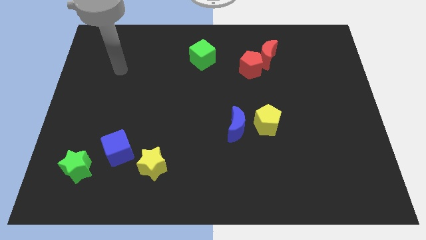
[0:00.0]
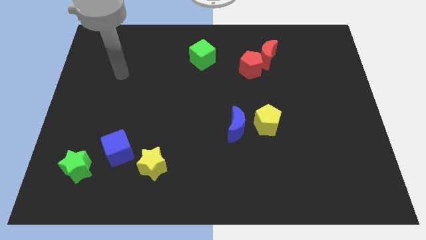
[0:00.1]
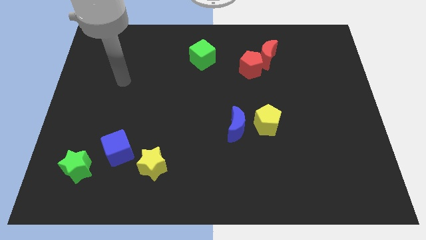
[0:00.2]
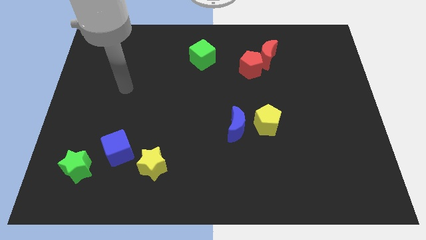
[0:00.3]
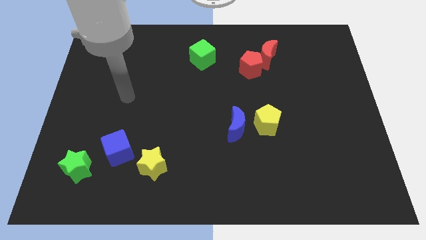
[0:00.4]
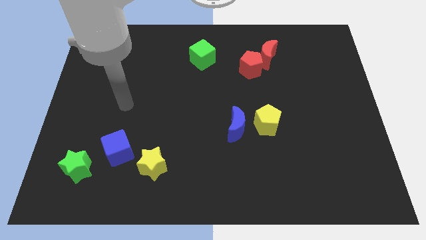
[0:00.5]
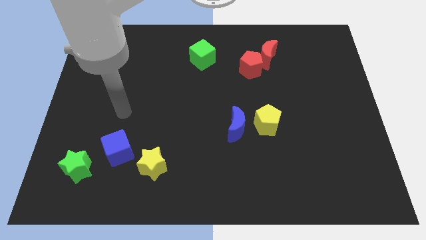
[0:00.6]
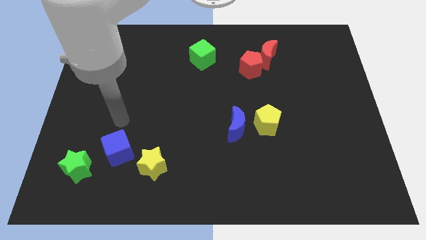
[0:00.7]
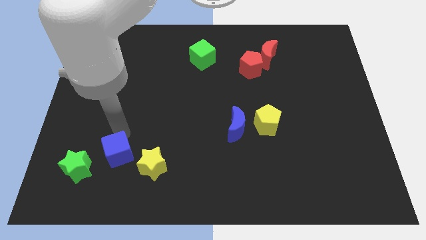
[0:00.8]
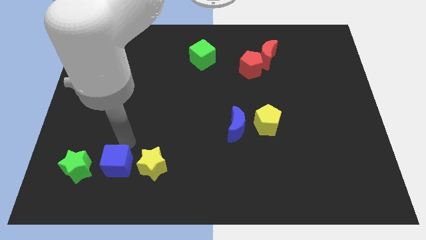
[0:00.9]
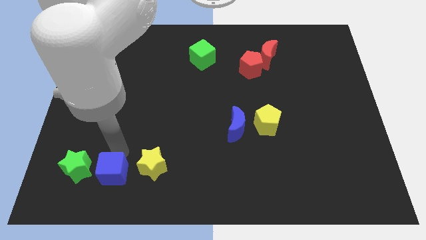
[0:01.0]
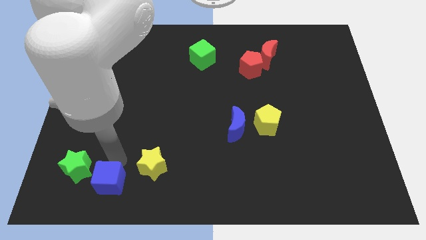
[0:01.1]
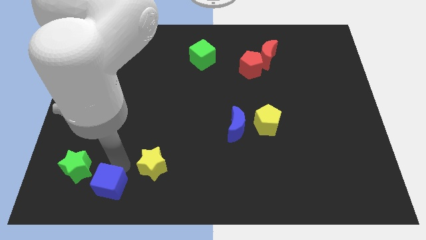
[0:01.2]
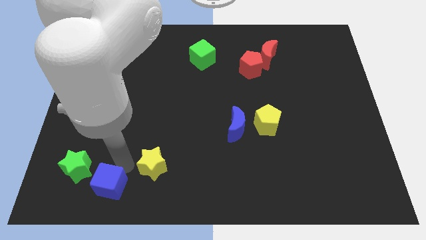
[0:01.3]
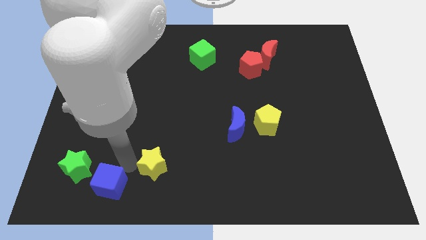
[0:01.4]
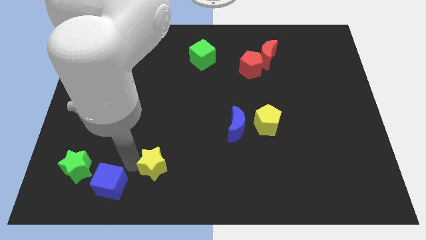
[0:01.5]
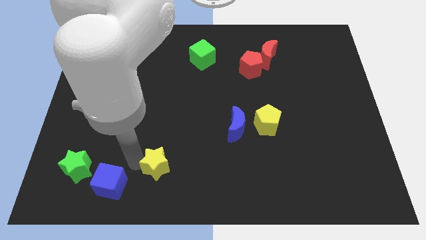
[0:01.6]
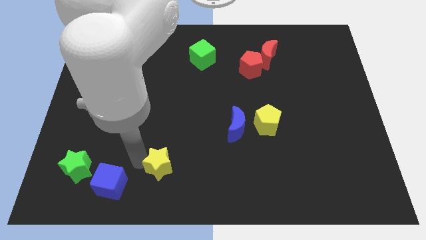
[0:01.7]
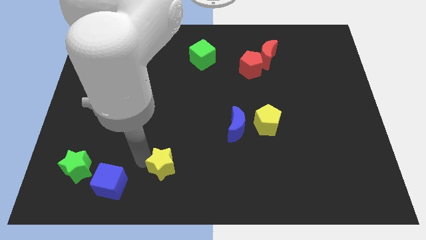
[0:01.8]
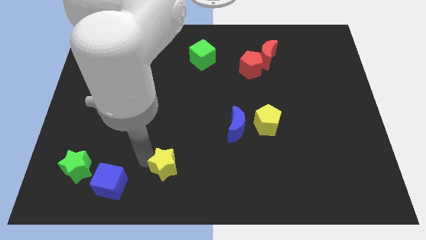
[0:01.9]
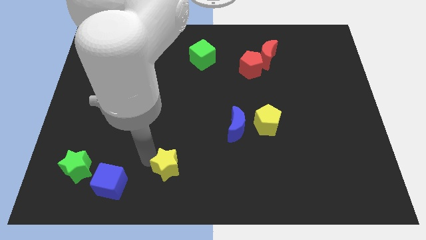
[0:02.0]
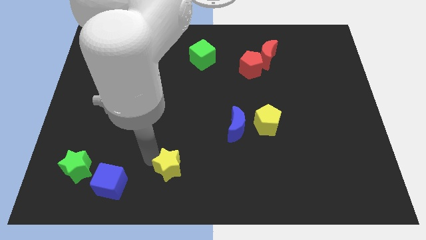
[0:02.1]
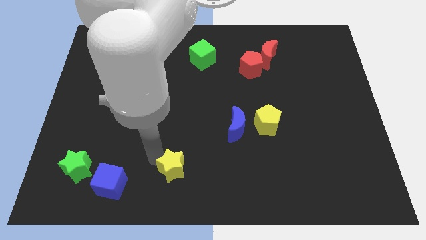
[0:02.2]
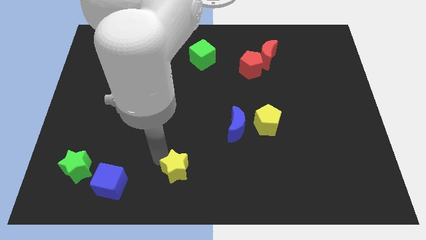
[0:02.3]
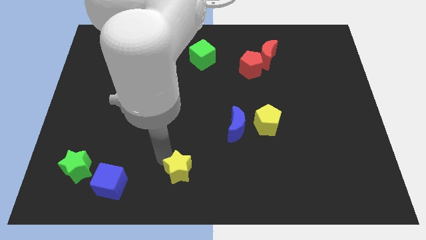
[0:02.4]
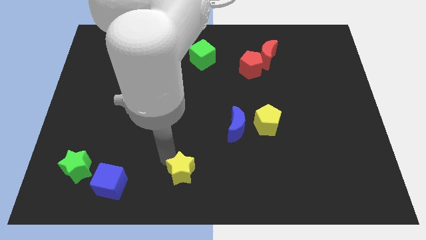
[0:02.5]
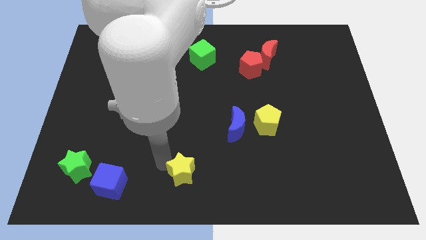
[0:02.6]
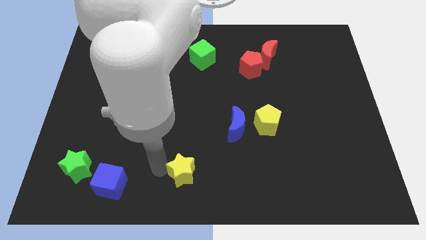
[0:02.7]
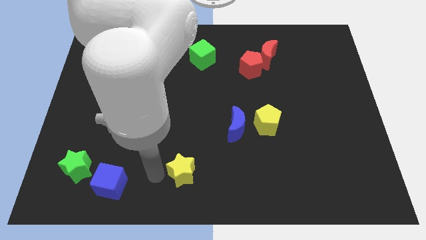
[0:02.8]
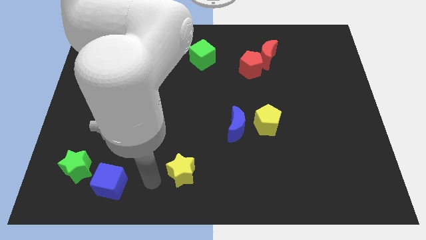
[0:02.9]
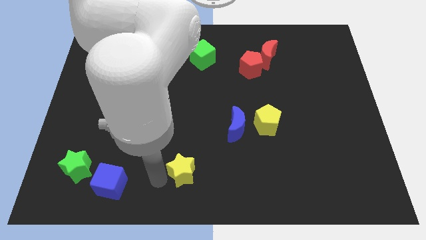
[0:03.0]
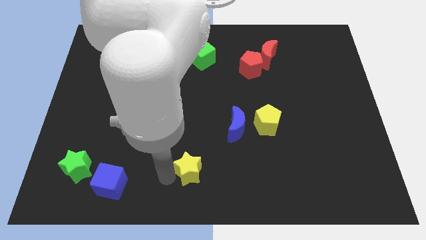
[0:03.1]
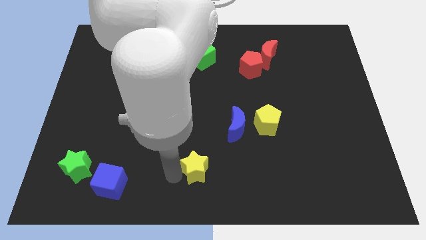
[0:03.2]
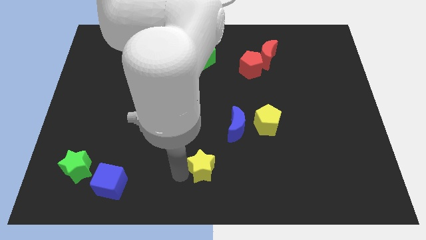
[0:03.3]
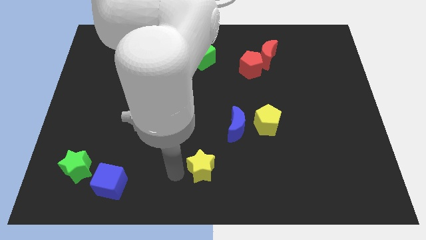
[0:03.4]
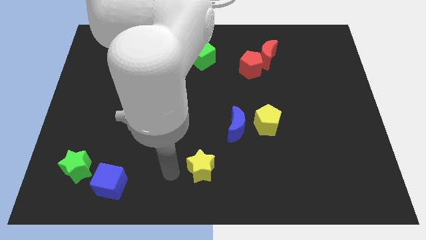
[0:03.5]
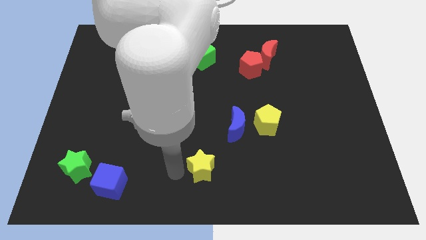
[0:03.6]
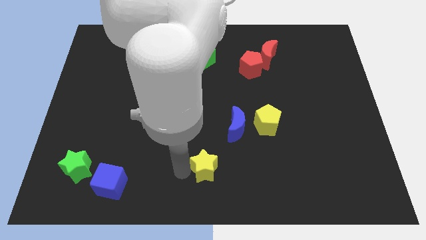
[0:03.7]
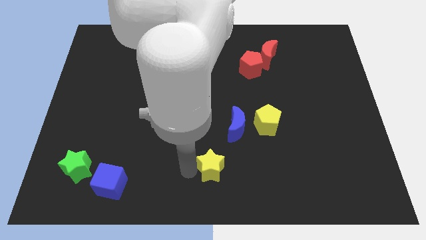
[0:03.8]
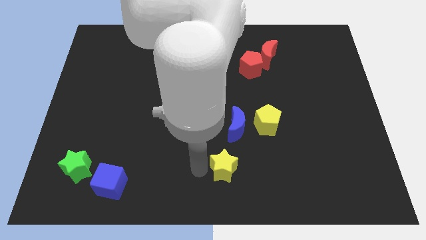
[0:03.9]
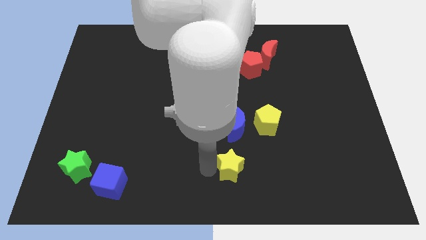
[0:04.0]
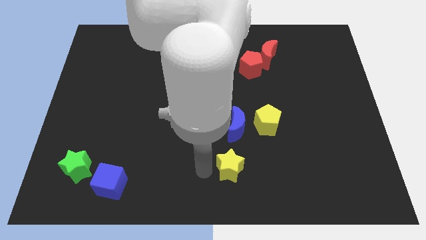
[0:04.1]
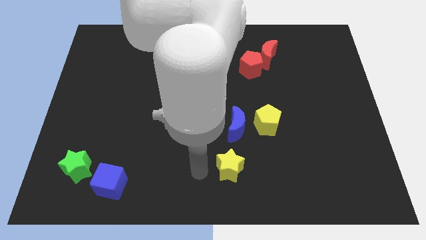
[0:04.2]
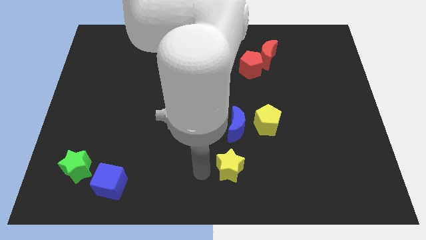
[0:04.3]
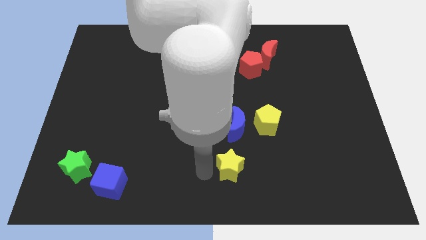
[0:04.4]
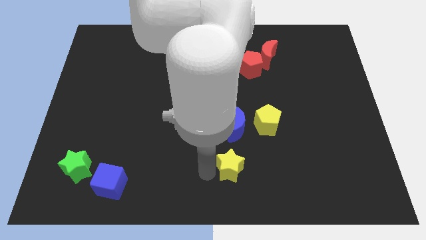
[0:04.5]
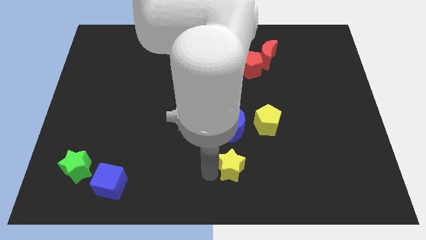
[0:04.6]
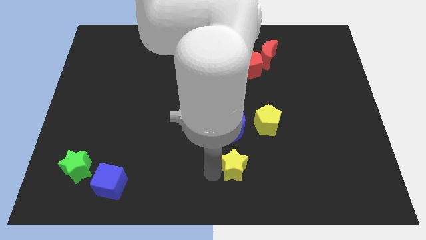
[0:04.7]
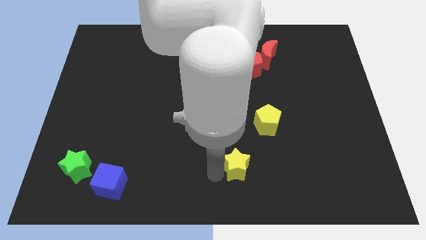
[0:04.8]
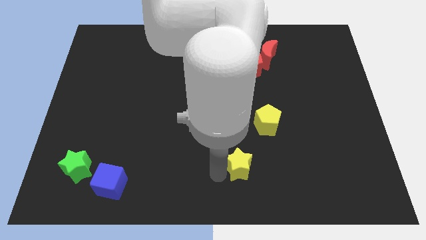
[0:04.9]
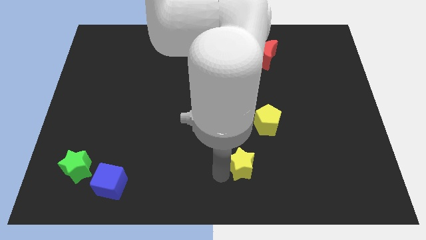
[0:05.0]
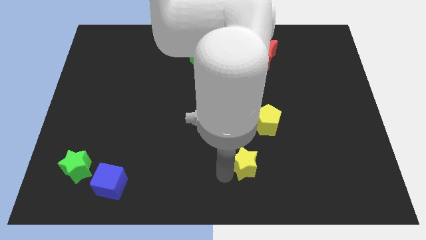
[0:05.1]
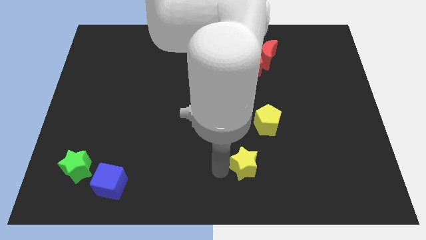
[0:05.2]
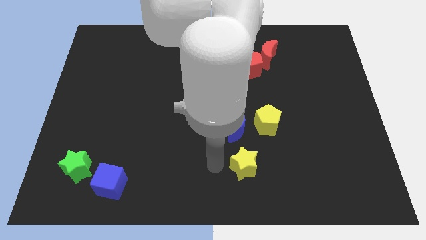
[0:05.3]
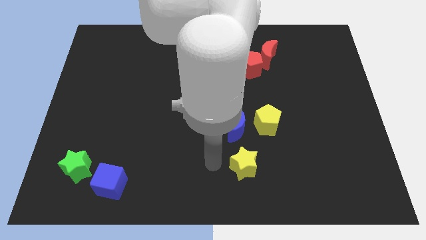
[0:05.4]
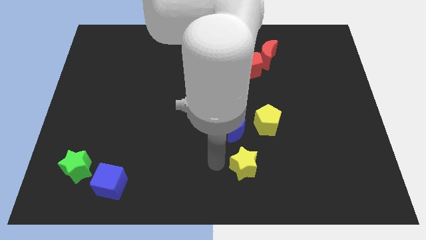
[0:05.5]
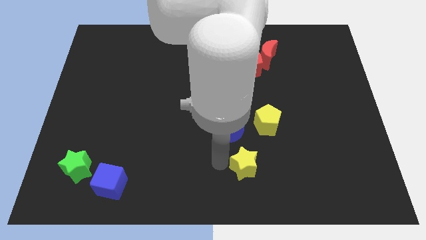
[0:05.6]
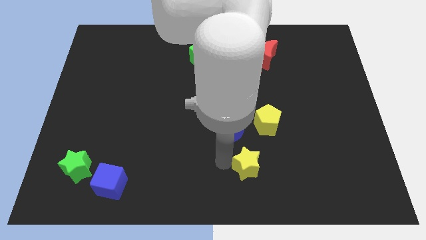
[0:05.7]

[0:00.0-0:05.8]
push the yellow star to the right

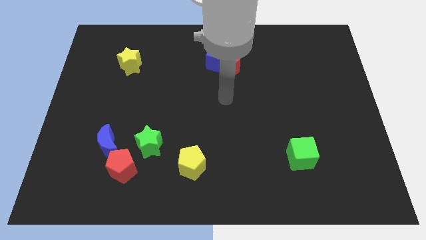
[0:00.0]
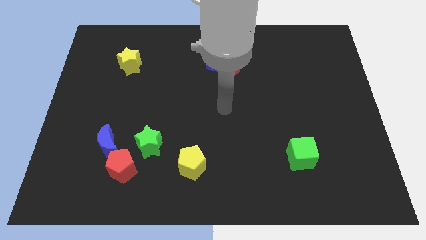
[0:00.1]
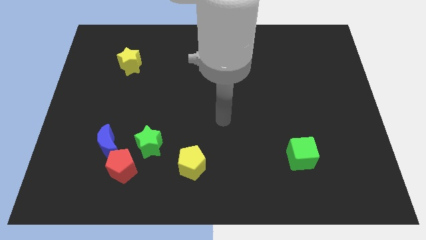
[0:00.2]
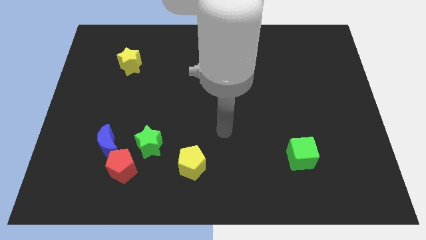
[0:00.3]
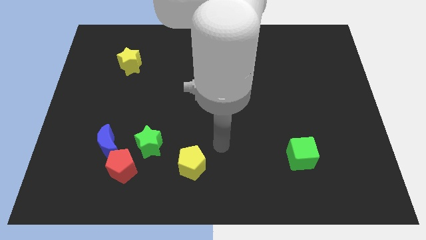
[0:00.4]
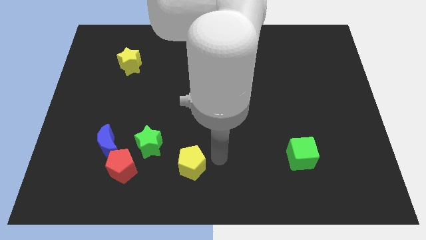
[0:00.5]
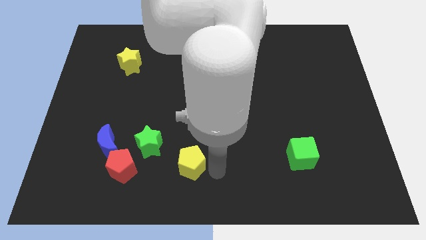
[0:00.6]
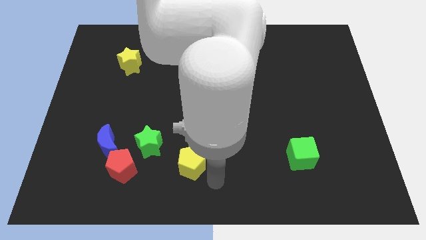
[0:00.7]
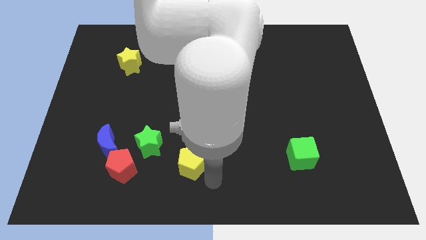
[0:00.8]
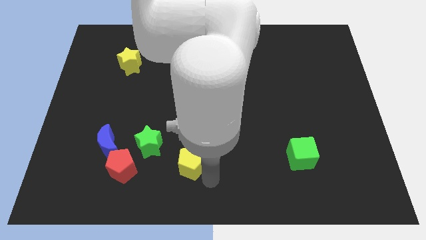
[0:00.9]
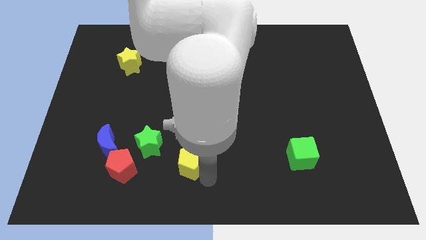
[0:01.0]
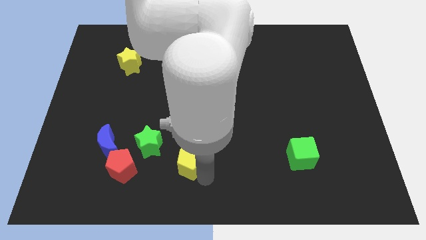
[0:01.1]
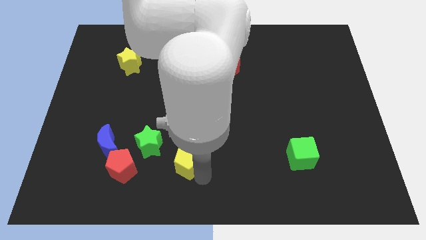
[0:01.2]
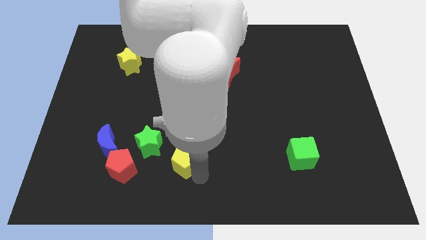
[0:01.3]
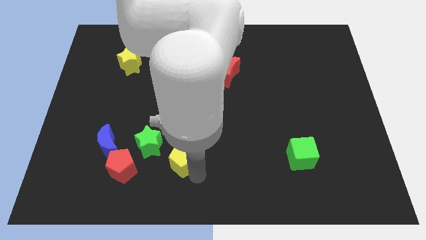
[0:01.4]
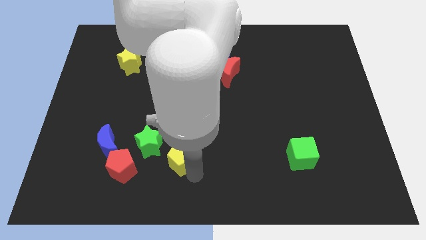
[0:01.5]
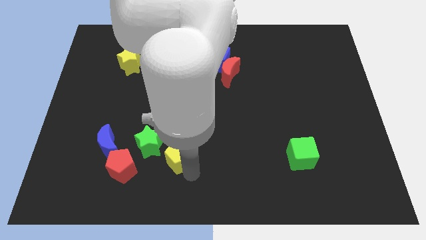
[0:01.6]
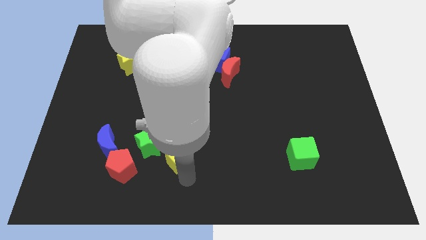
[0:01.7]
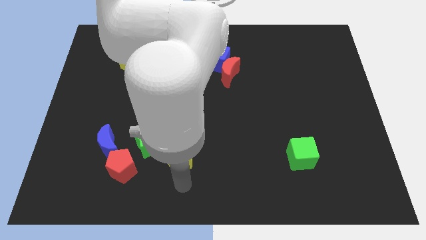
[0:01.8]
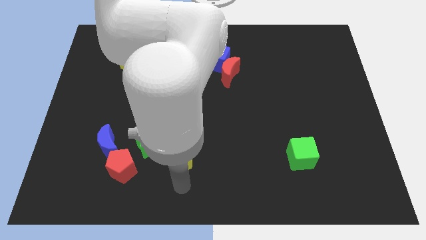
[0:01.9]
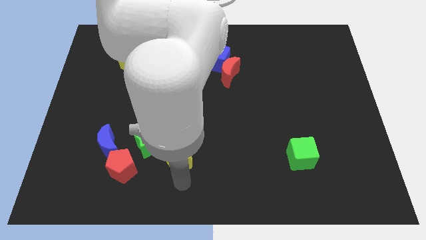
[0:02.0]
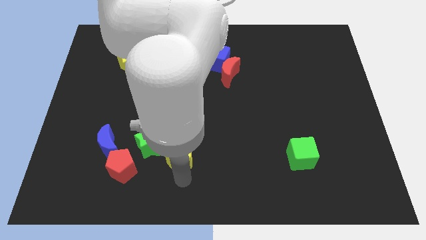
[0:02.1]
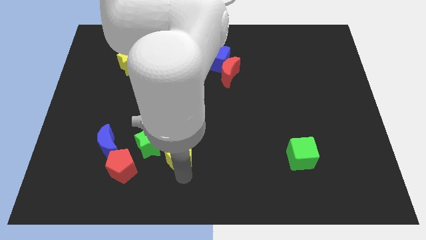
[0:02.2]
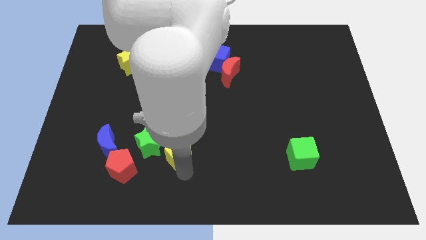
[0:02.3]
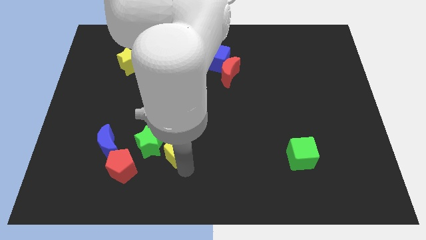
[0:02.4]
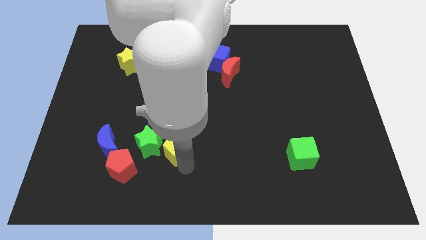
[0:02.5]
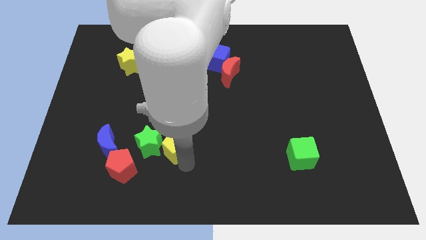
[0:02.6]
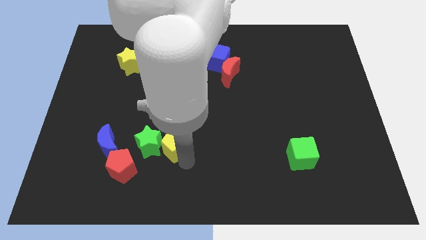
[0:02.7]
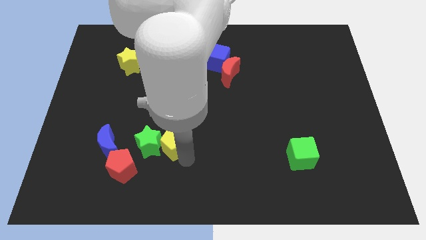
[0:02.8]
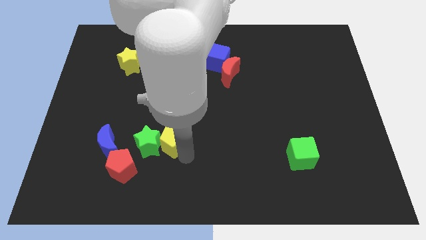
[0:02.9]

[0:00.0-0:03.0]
slide the yellow pentagon up and left somewhat
